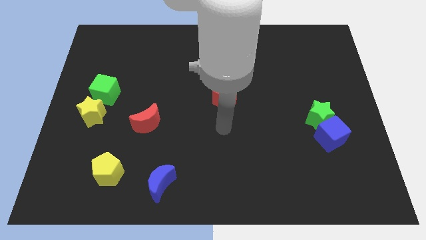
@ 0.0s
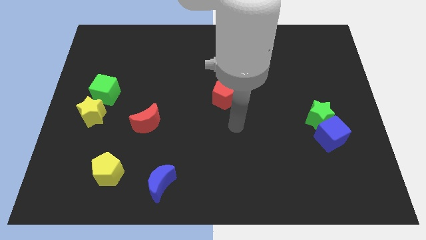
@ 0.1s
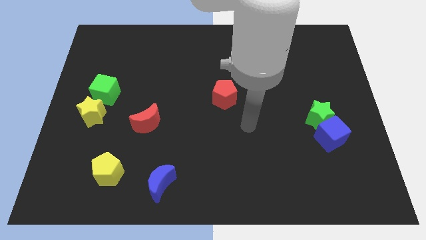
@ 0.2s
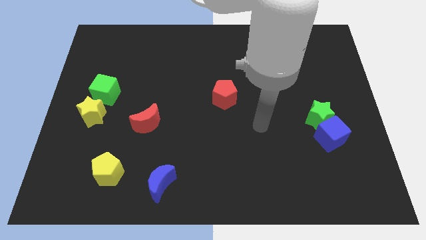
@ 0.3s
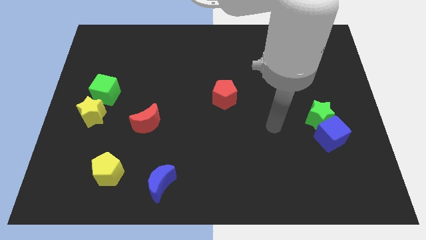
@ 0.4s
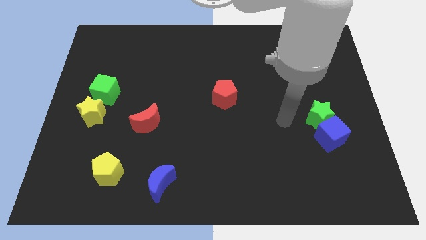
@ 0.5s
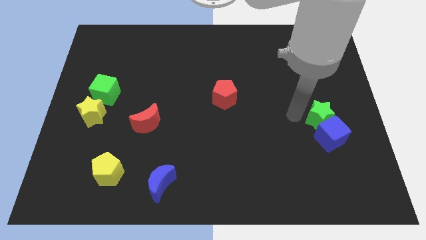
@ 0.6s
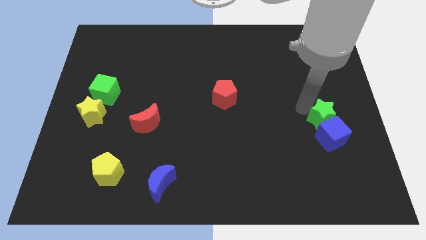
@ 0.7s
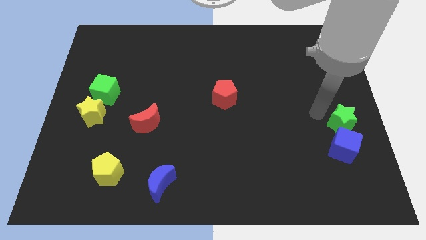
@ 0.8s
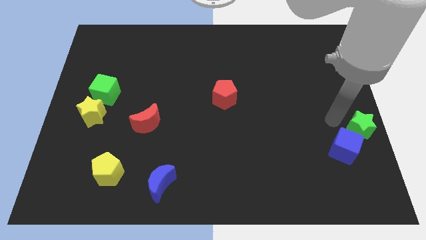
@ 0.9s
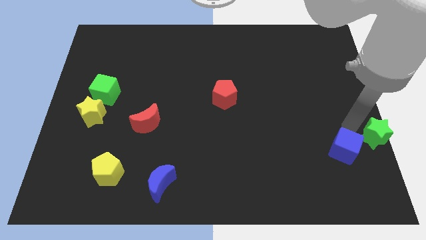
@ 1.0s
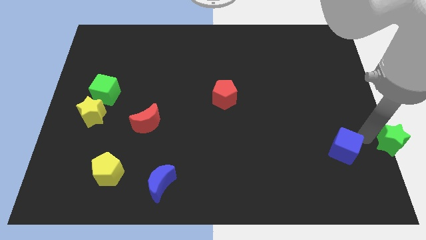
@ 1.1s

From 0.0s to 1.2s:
separate the blue cube from the green star

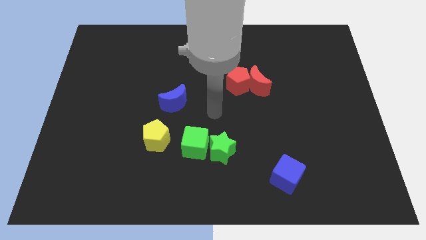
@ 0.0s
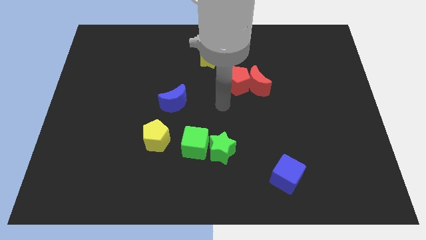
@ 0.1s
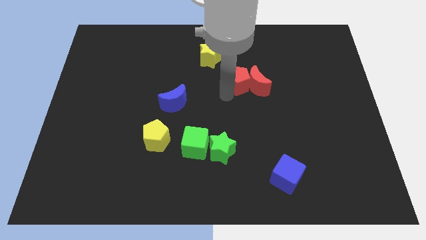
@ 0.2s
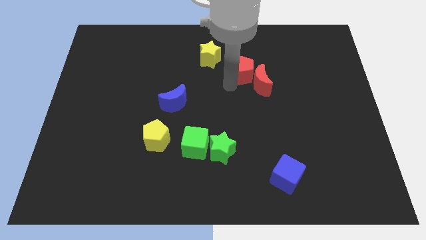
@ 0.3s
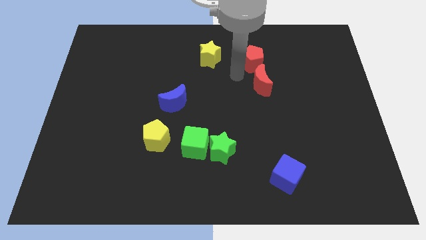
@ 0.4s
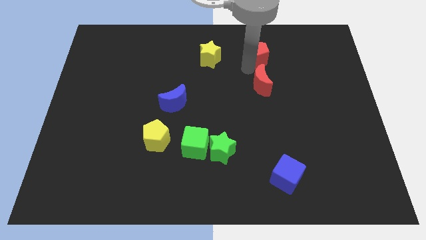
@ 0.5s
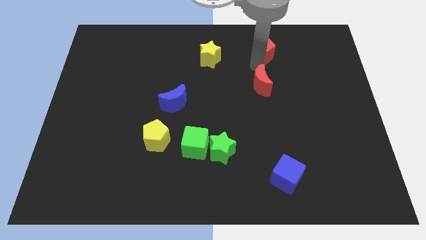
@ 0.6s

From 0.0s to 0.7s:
pull the red moon apart from the red pentagon

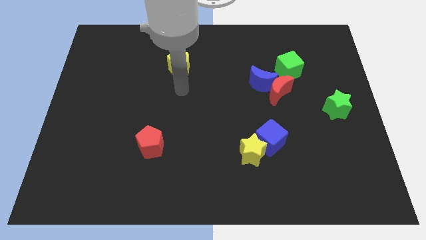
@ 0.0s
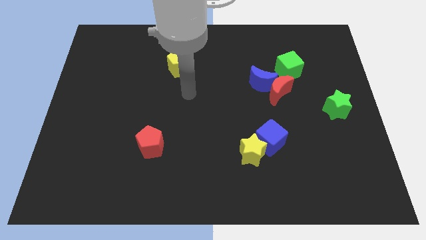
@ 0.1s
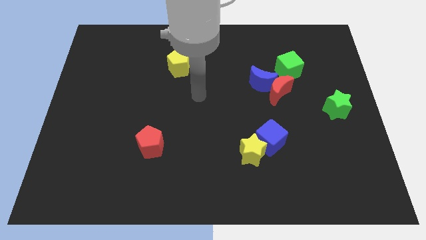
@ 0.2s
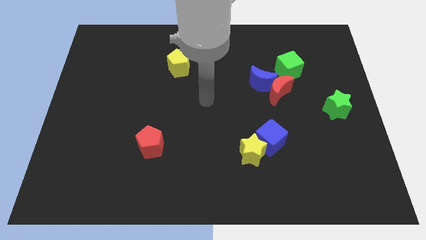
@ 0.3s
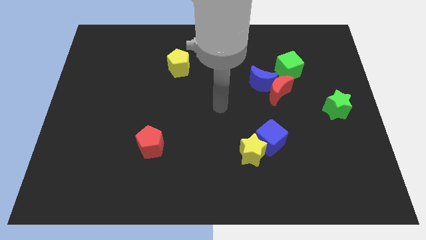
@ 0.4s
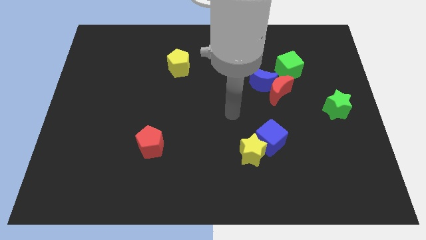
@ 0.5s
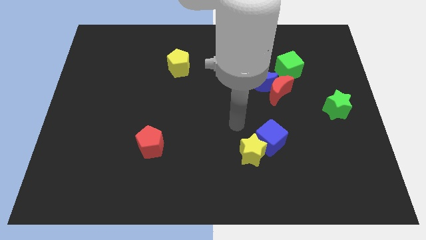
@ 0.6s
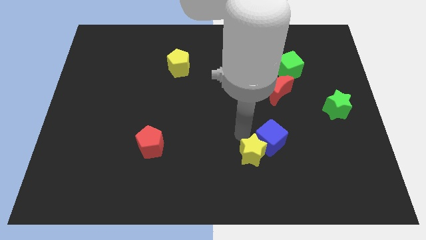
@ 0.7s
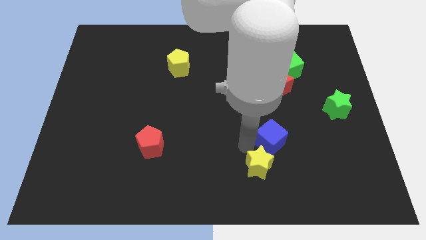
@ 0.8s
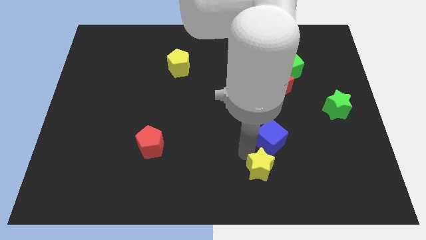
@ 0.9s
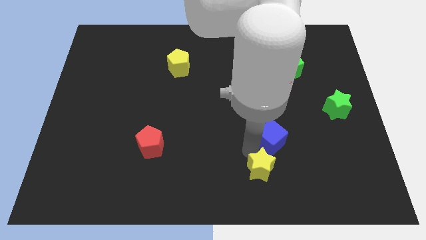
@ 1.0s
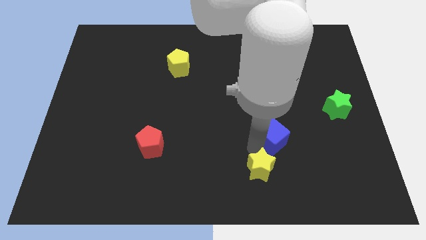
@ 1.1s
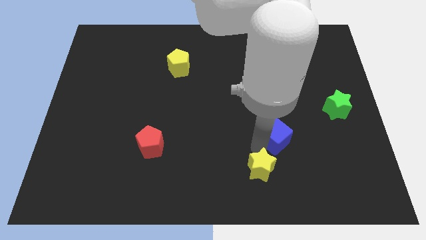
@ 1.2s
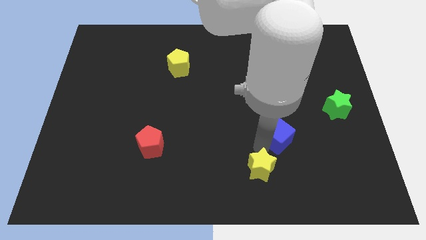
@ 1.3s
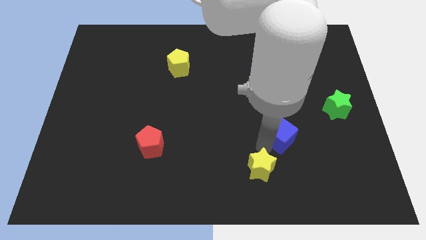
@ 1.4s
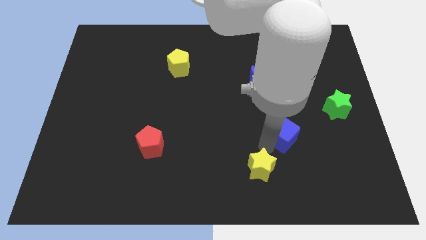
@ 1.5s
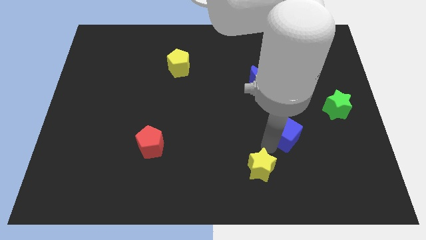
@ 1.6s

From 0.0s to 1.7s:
move the blue cube away from the yellow star

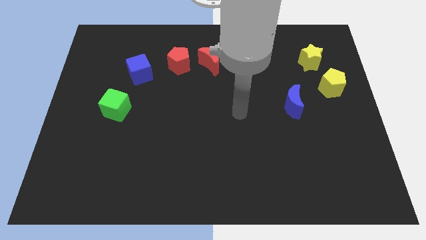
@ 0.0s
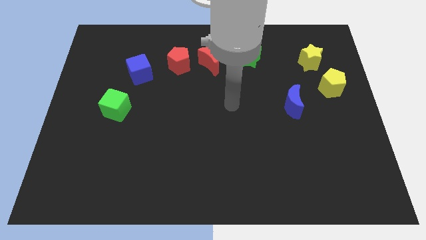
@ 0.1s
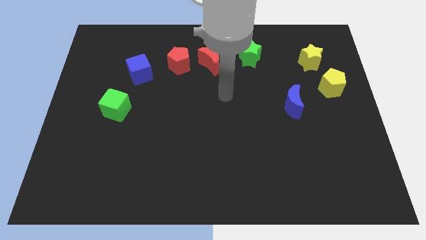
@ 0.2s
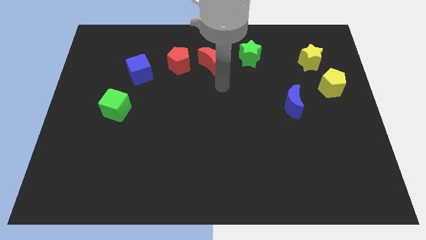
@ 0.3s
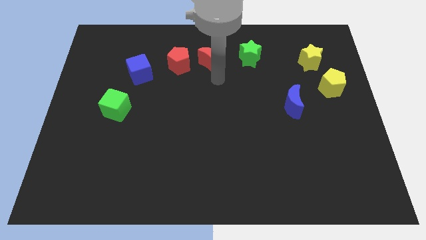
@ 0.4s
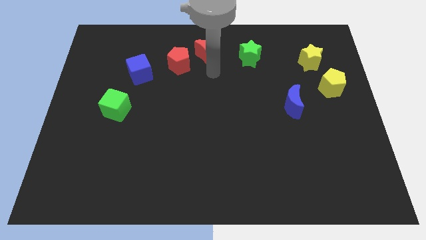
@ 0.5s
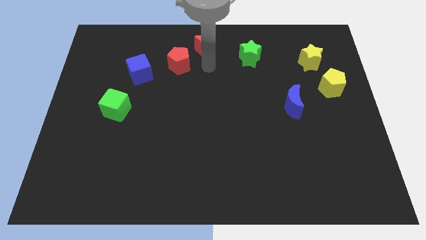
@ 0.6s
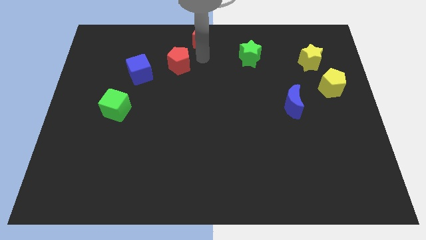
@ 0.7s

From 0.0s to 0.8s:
move the red pentagon away from the red moon

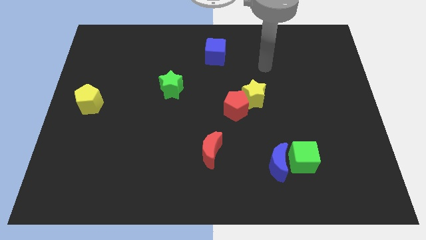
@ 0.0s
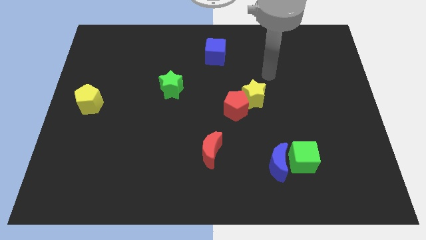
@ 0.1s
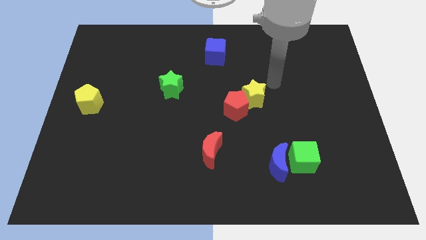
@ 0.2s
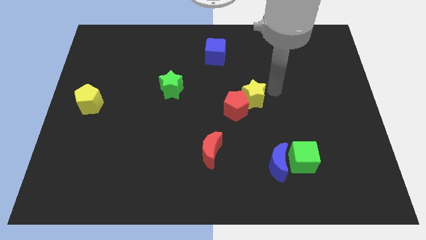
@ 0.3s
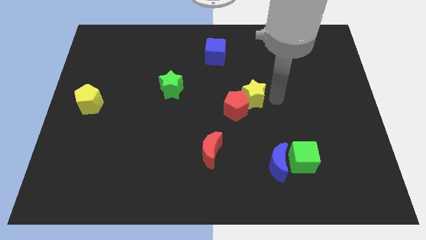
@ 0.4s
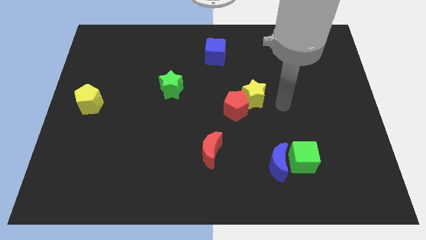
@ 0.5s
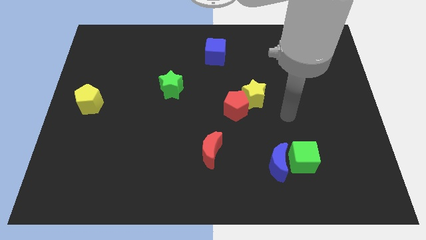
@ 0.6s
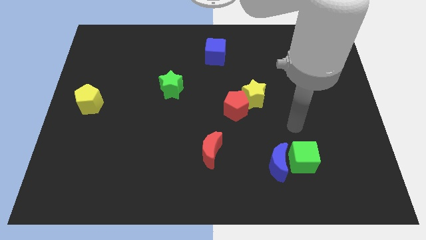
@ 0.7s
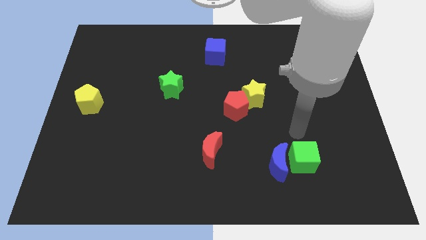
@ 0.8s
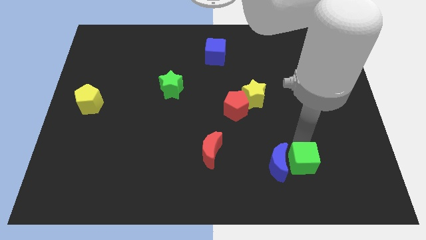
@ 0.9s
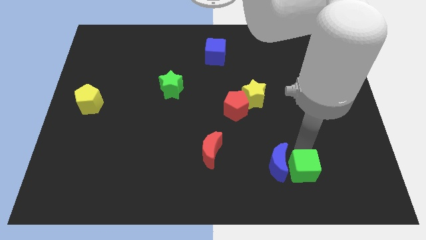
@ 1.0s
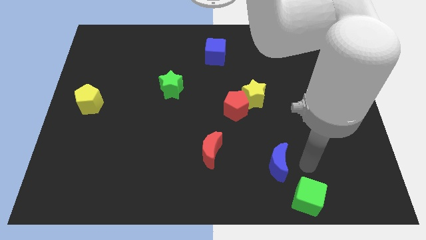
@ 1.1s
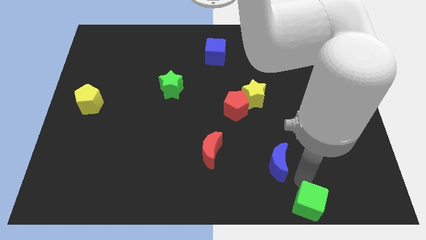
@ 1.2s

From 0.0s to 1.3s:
move the blue moon away from the green cube

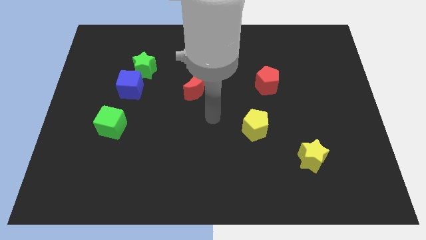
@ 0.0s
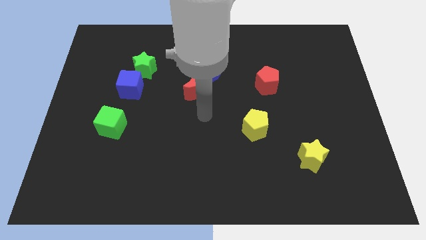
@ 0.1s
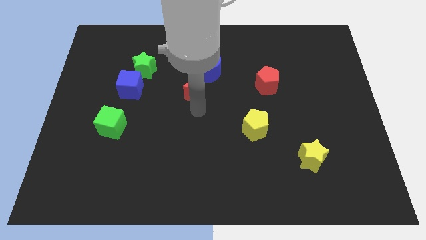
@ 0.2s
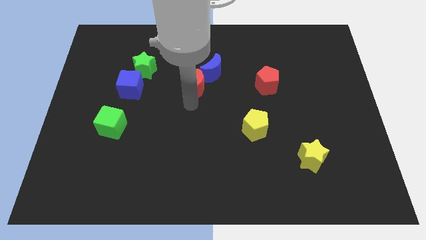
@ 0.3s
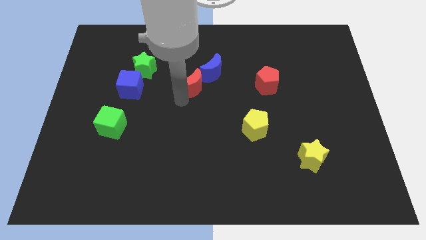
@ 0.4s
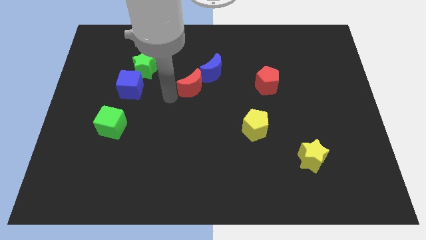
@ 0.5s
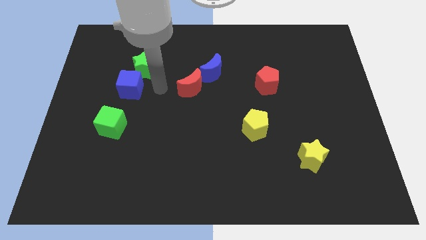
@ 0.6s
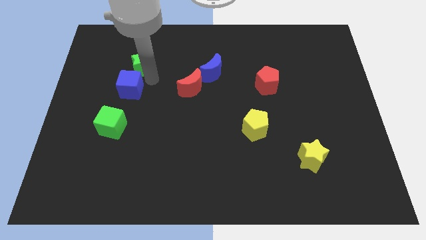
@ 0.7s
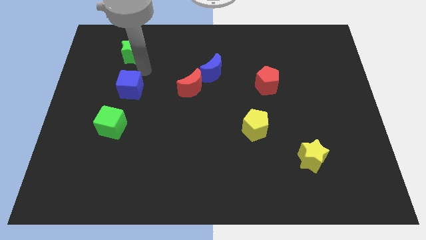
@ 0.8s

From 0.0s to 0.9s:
pull the blue cube apart from the green star

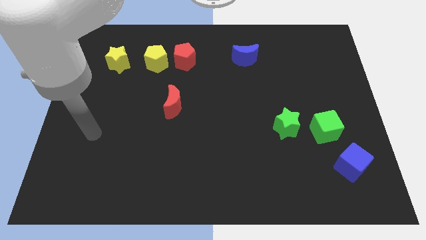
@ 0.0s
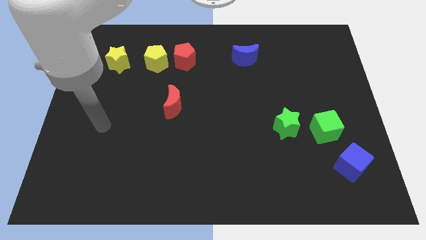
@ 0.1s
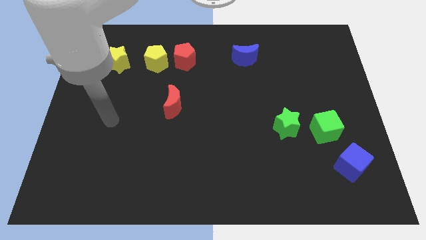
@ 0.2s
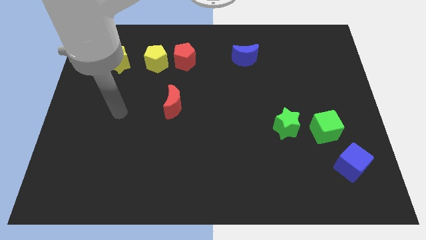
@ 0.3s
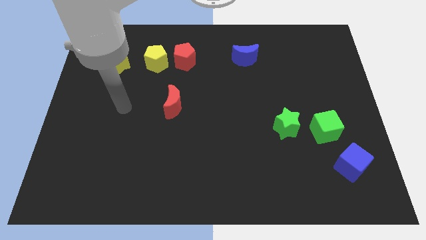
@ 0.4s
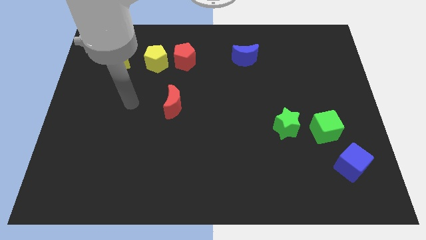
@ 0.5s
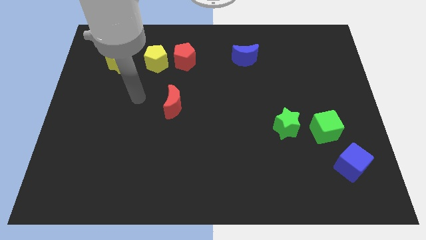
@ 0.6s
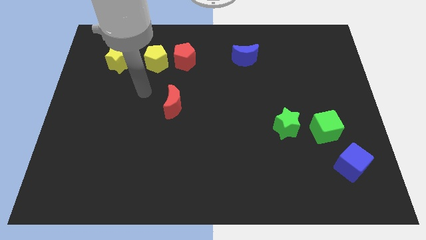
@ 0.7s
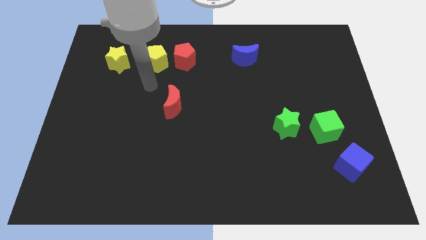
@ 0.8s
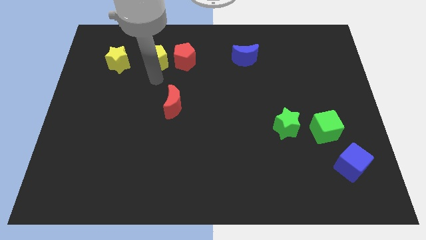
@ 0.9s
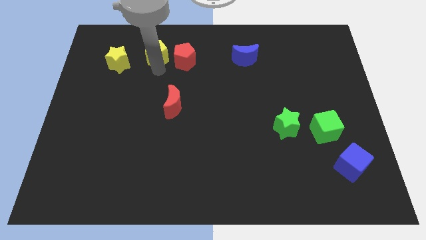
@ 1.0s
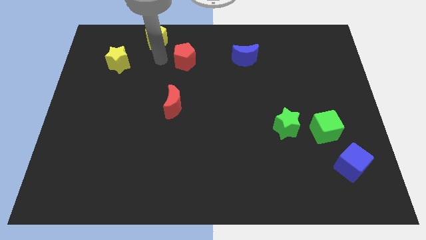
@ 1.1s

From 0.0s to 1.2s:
pull the red pentagon apart from the yellow pentagon

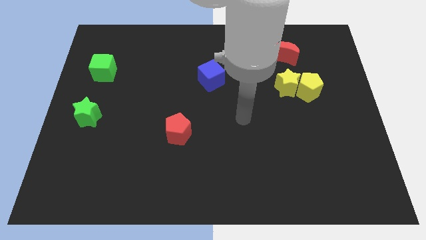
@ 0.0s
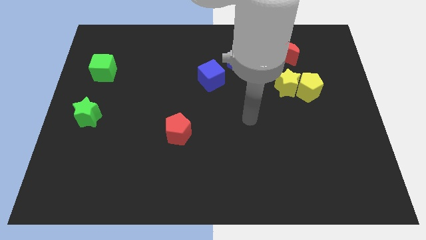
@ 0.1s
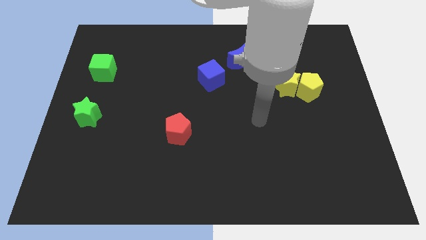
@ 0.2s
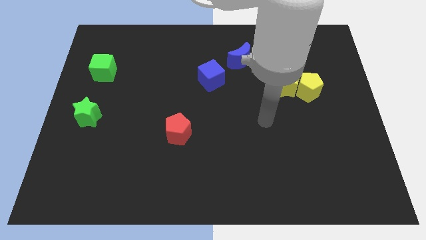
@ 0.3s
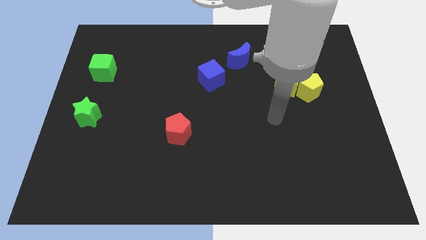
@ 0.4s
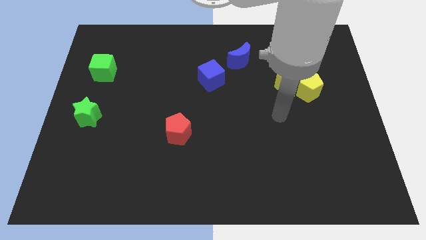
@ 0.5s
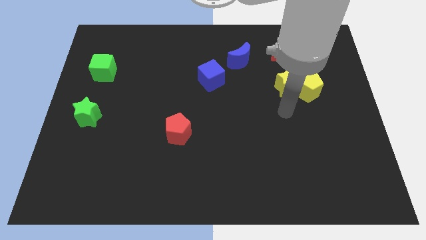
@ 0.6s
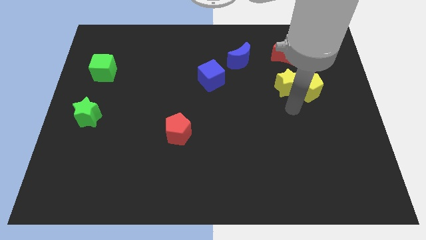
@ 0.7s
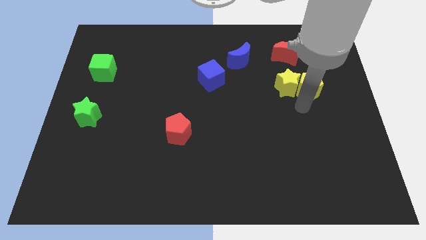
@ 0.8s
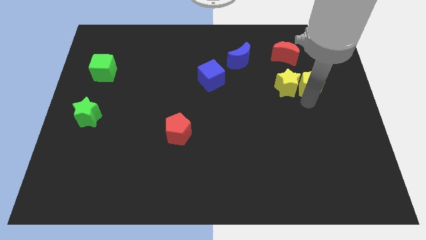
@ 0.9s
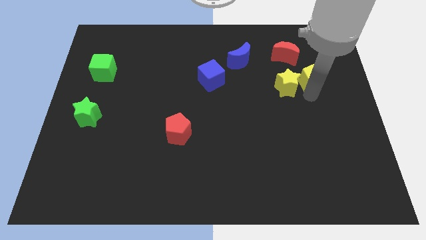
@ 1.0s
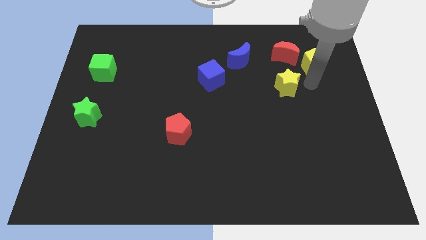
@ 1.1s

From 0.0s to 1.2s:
separate the yellow star from the yellow pentagon

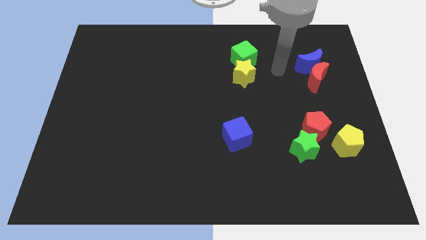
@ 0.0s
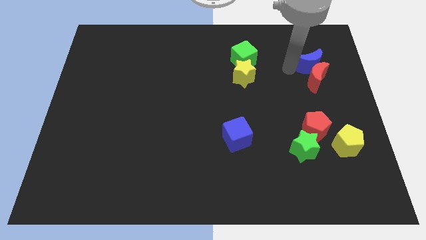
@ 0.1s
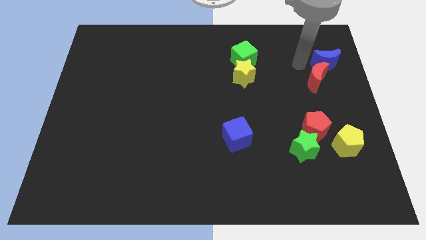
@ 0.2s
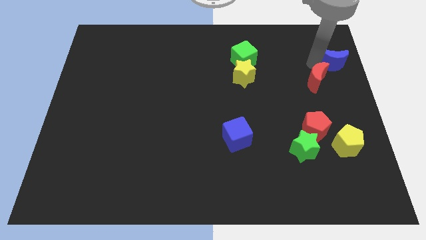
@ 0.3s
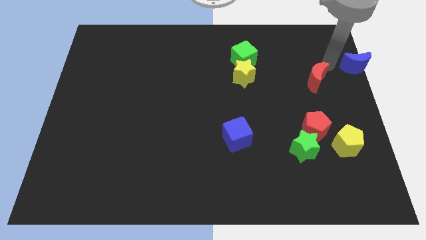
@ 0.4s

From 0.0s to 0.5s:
pull the red moon apart from the blue moon

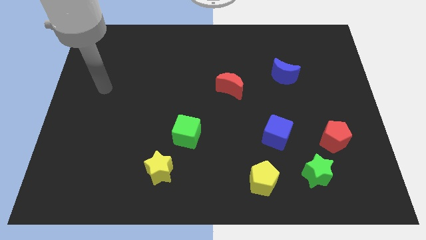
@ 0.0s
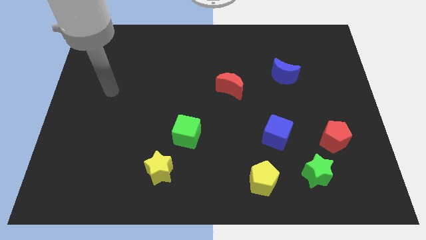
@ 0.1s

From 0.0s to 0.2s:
separate the red pentagon from the green star
